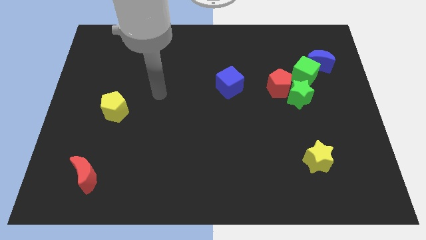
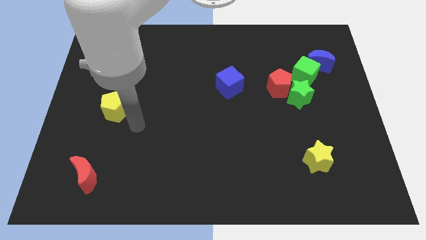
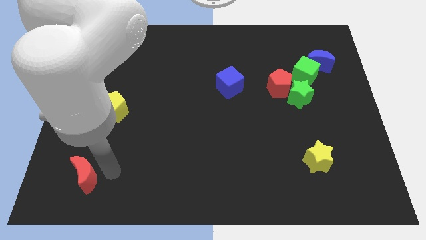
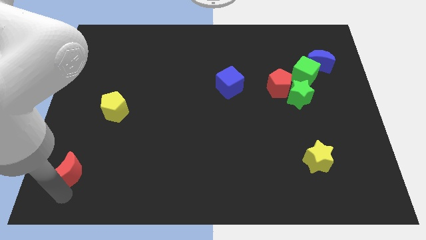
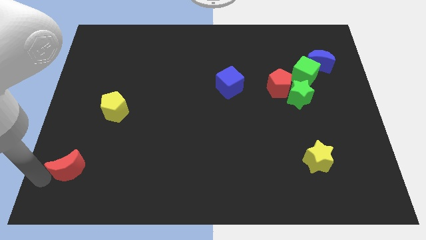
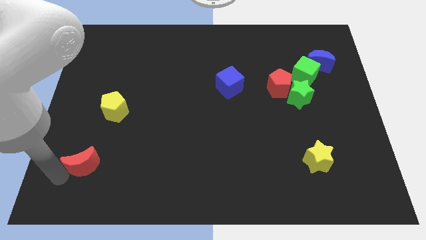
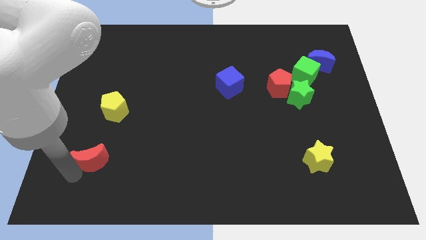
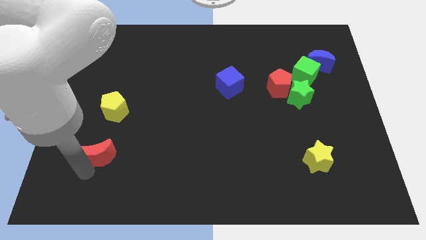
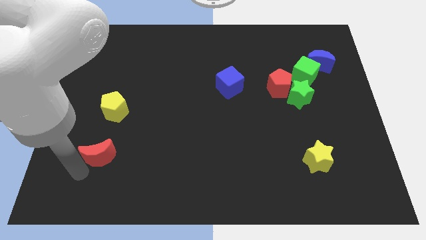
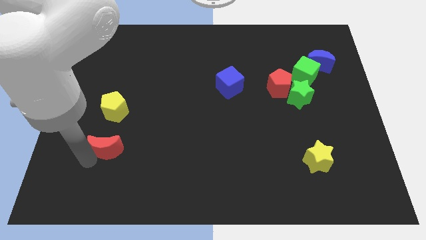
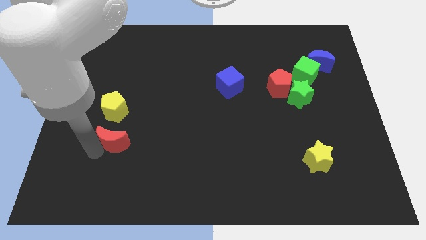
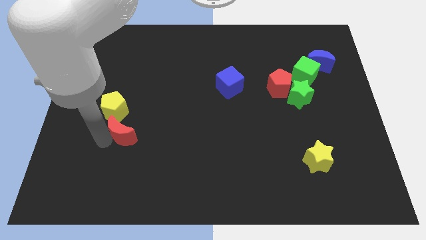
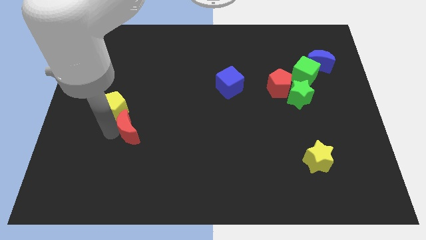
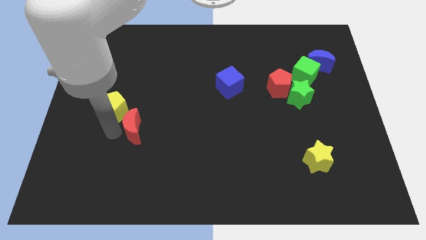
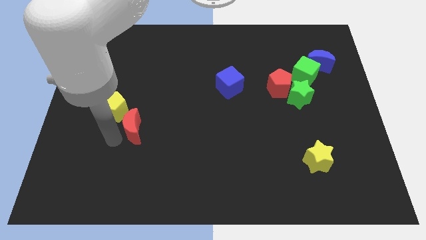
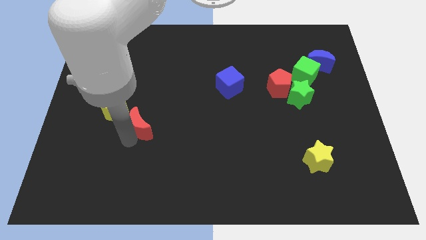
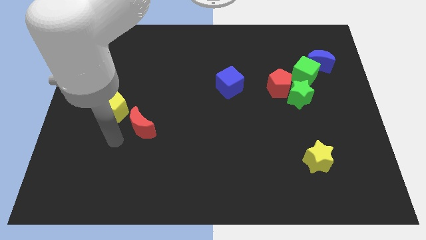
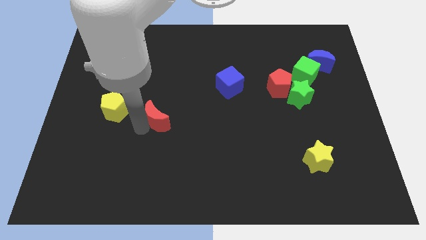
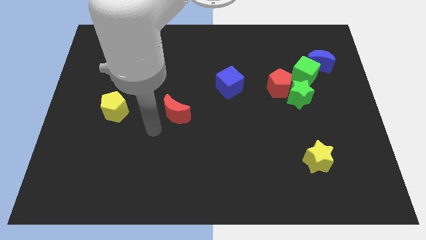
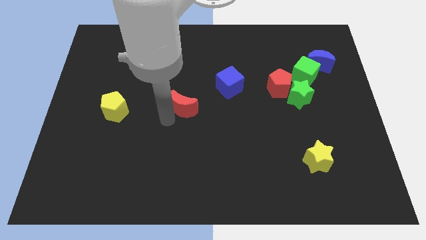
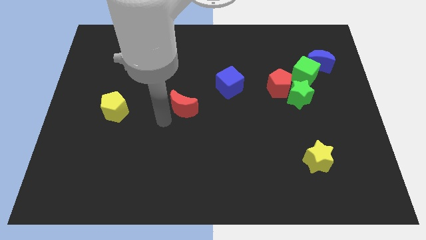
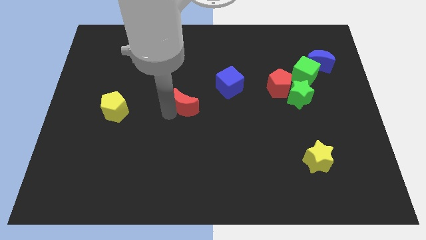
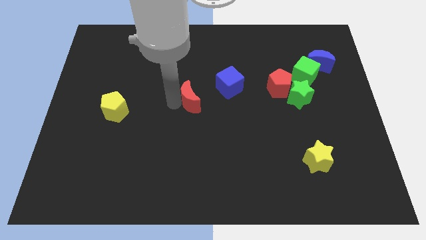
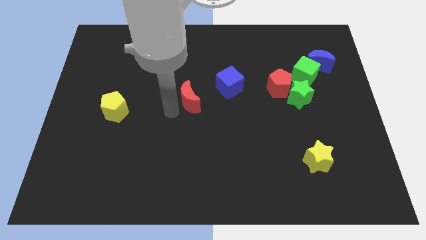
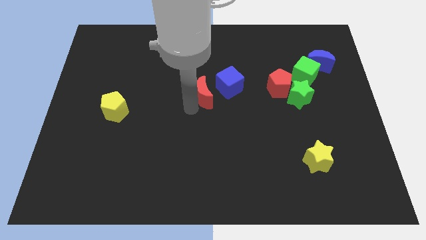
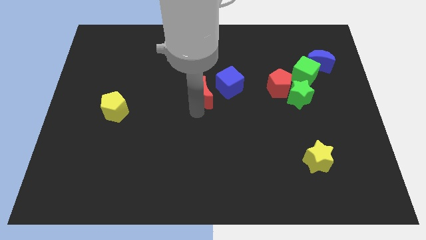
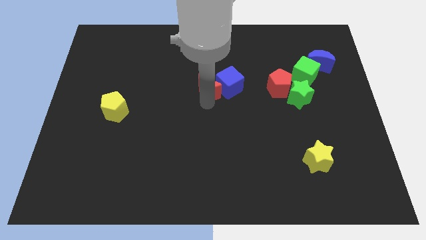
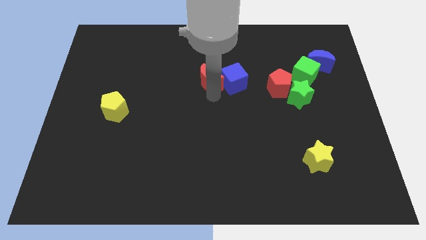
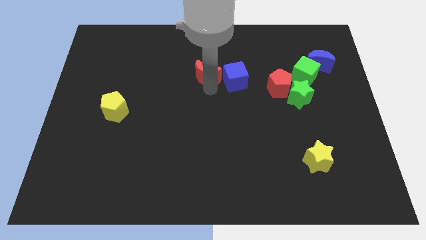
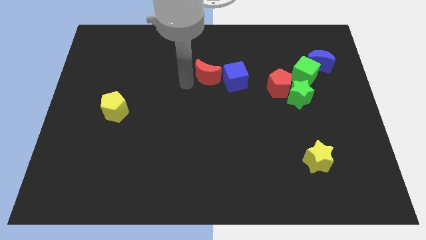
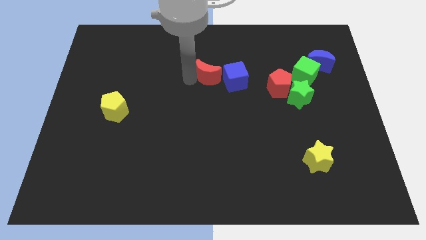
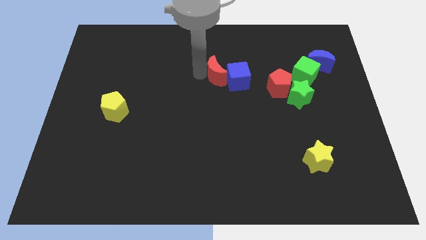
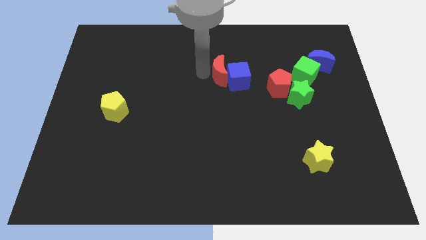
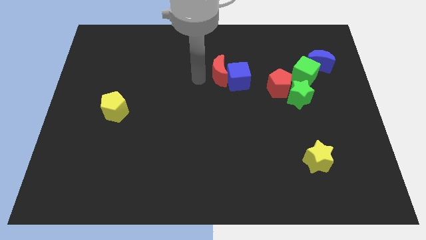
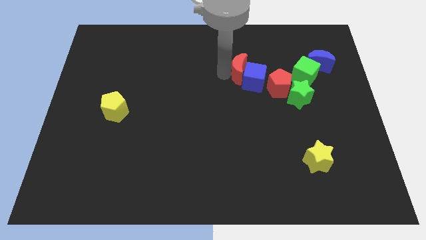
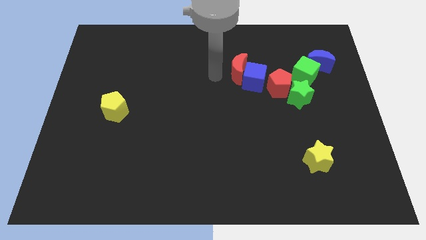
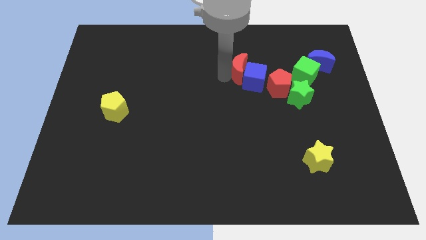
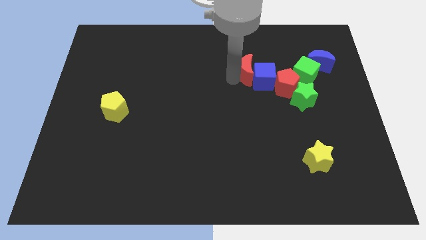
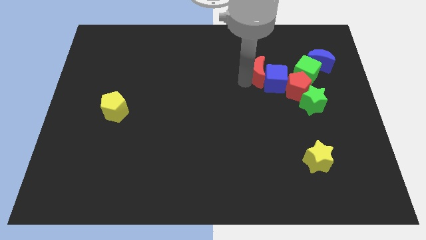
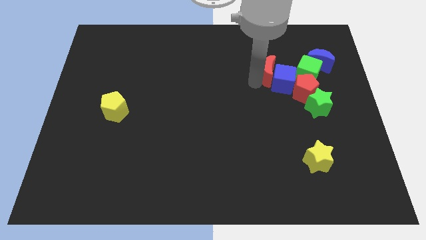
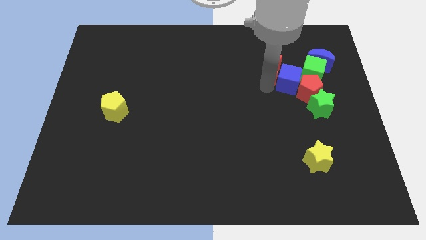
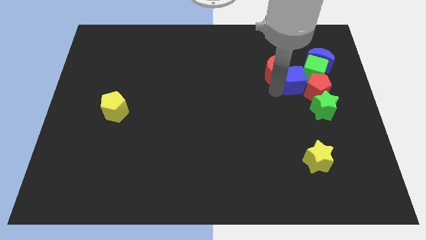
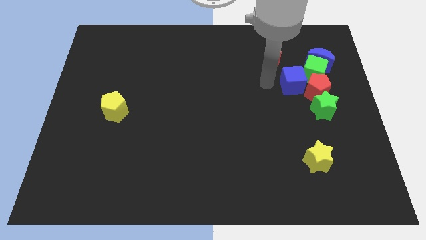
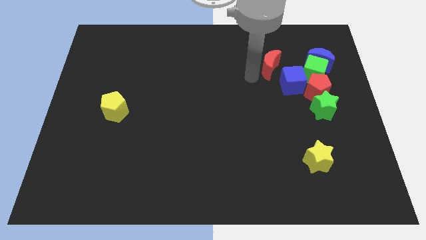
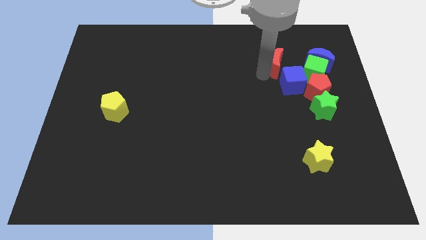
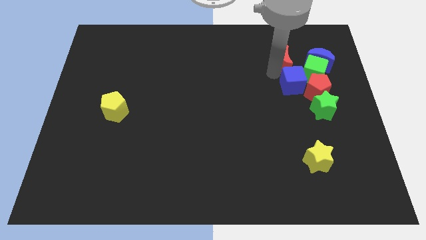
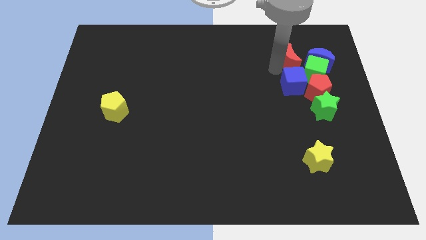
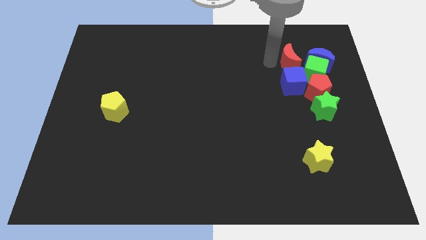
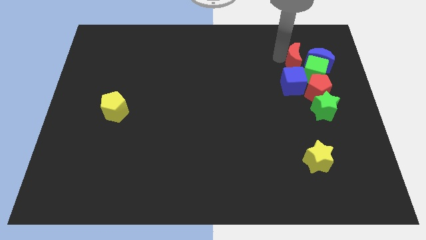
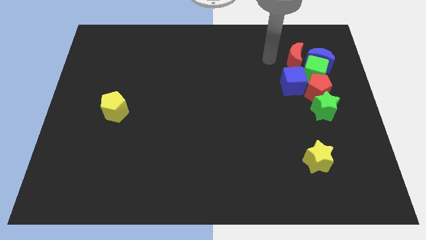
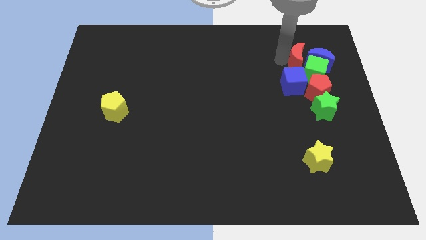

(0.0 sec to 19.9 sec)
slide the red moon to the blue moon

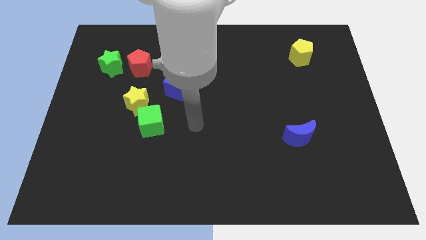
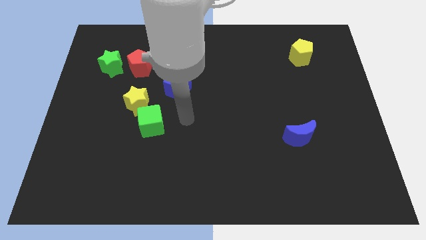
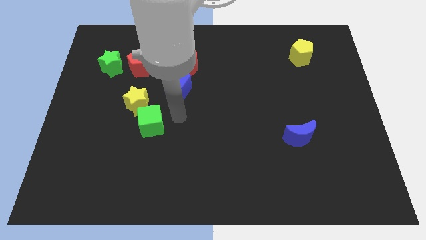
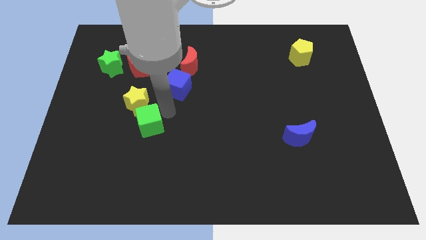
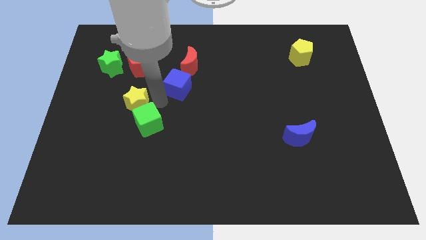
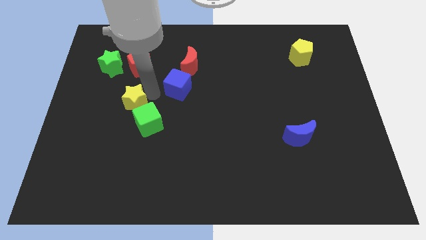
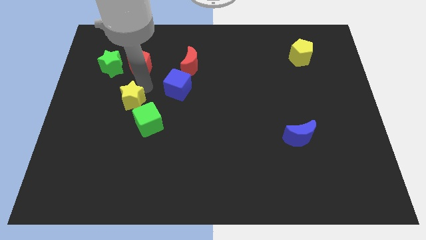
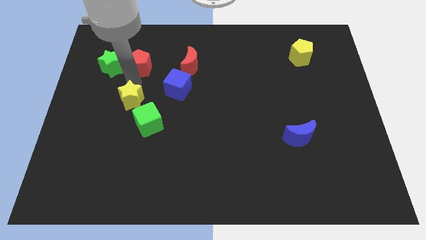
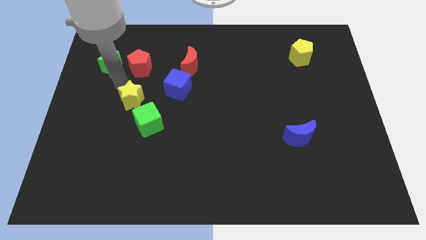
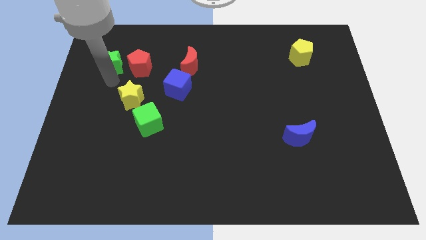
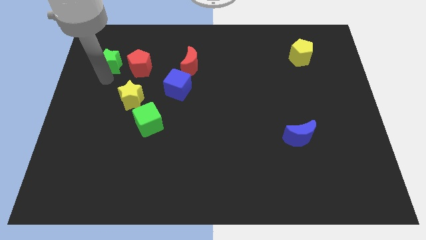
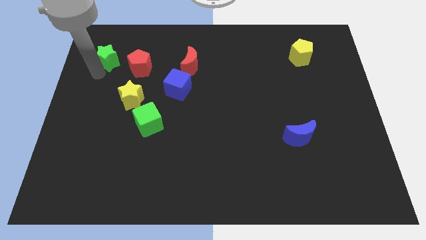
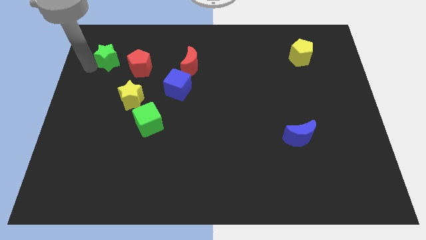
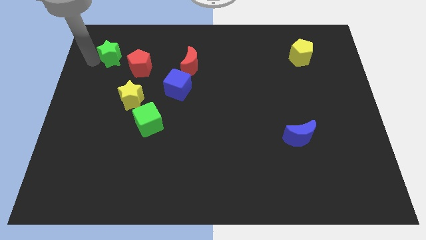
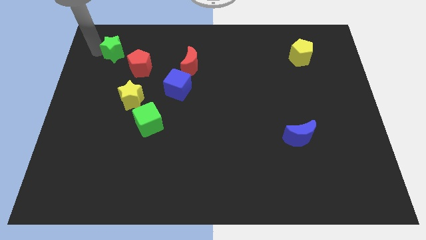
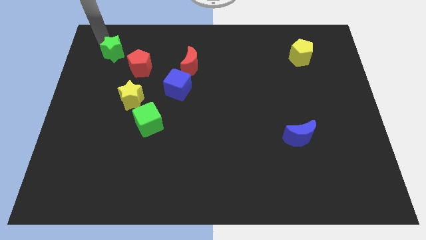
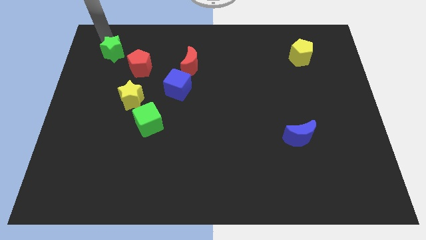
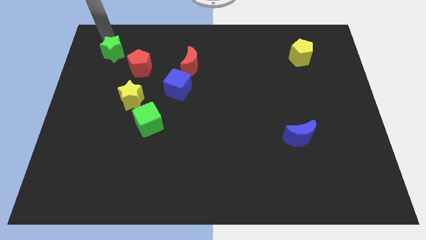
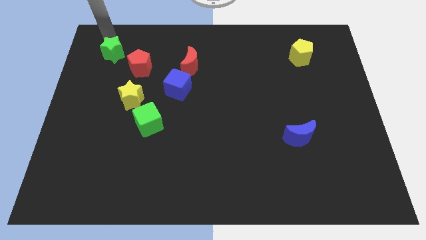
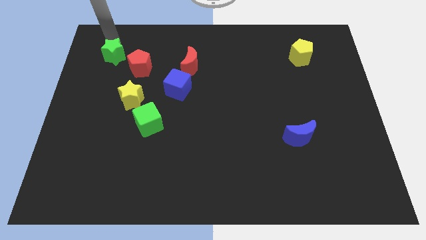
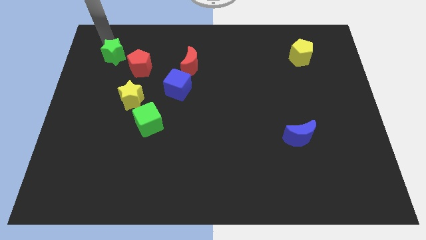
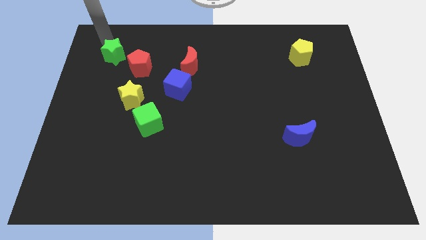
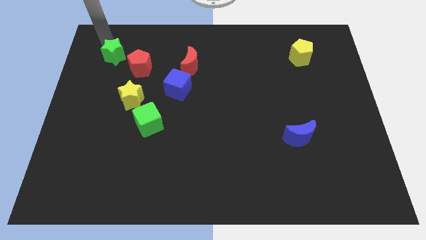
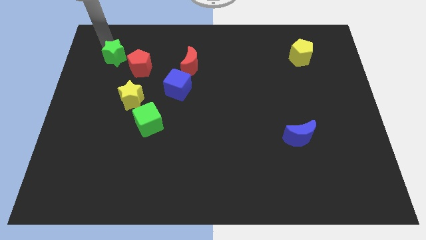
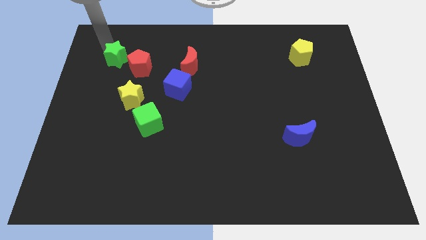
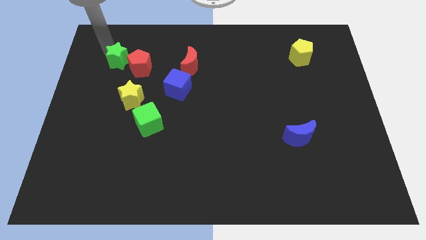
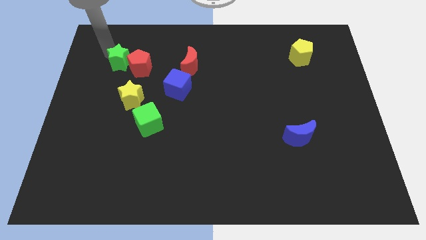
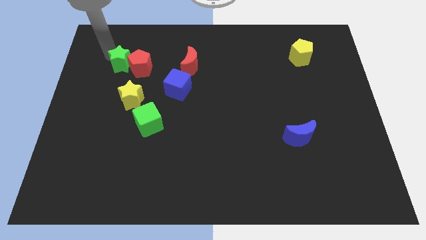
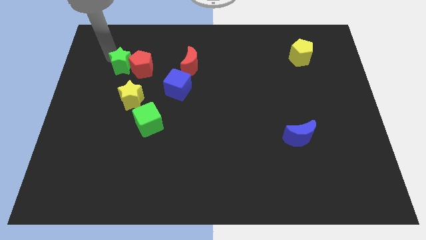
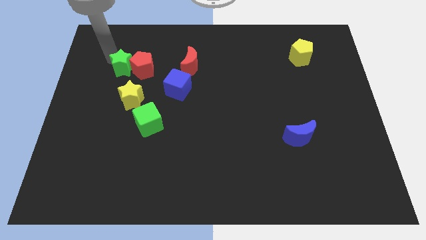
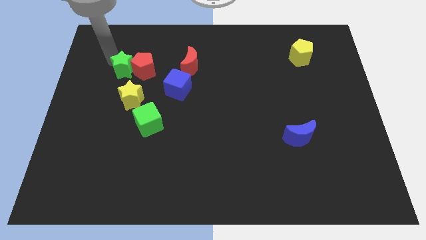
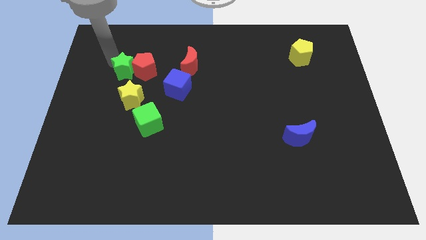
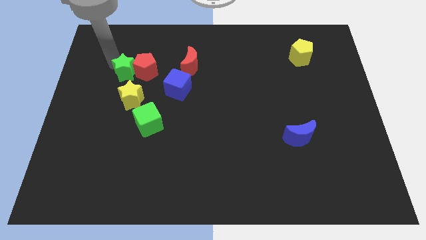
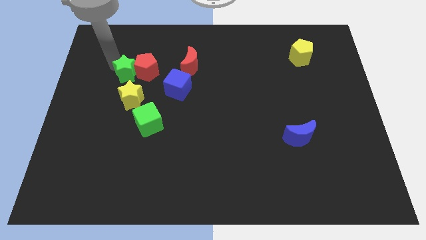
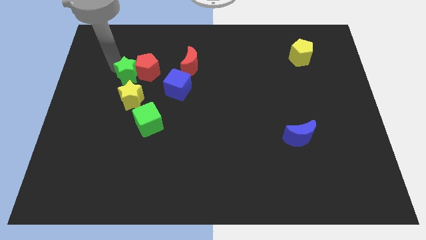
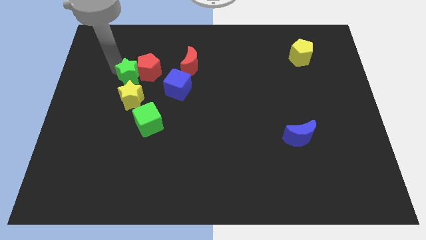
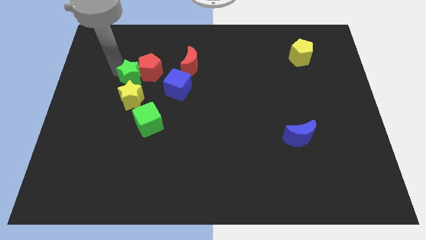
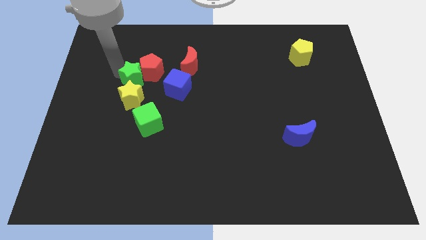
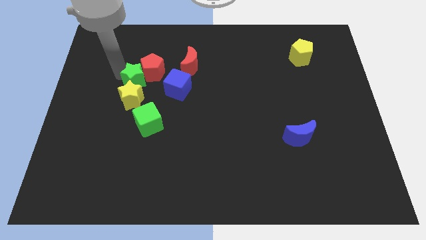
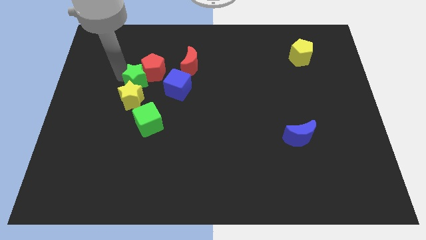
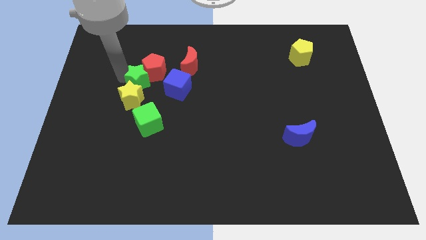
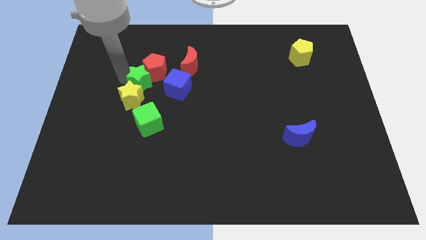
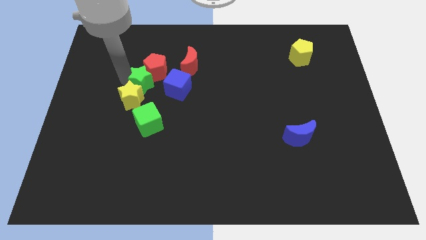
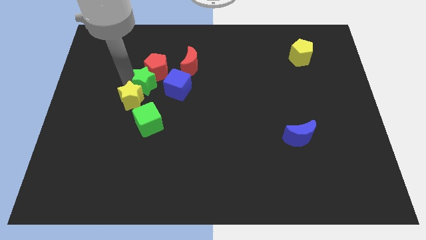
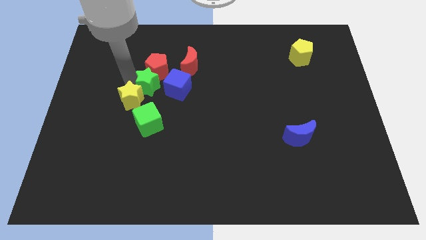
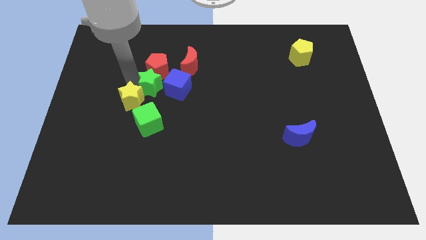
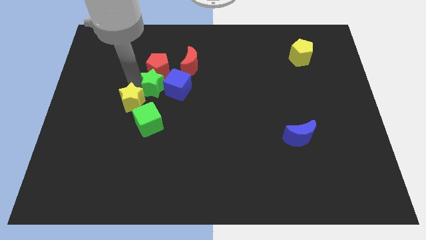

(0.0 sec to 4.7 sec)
move the green star towards the blue cube
